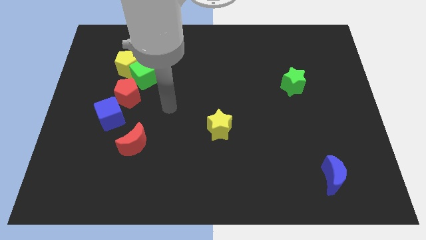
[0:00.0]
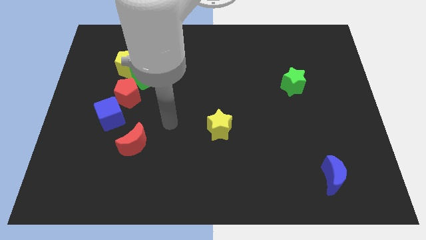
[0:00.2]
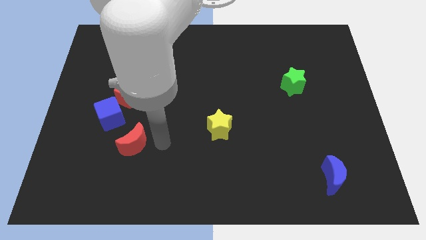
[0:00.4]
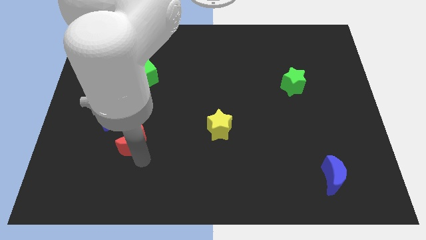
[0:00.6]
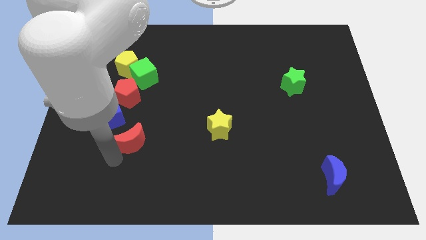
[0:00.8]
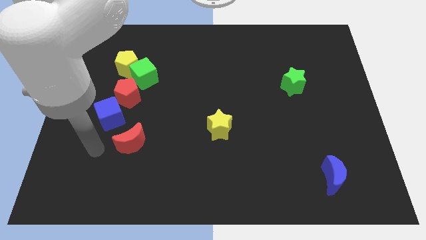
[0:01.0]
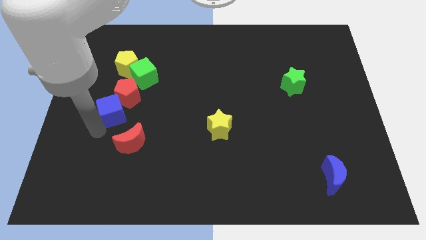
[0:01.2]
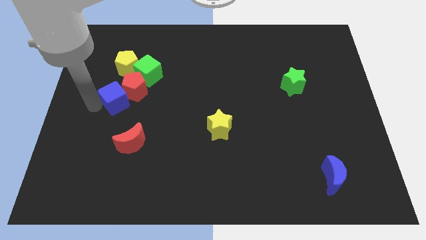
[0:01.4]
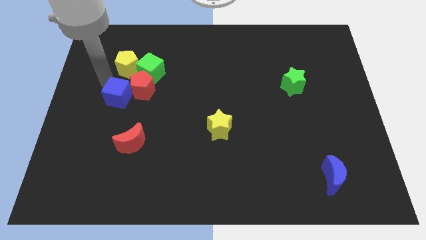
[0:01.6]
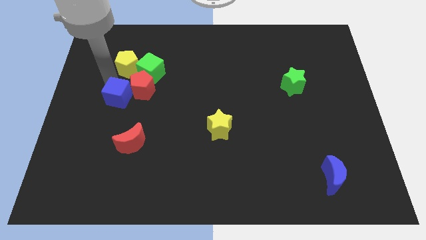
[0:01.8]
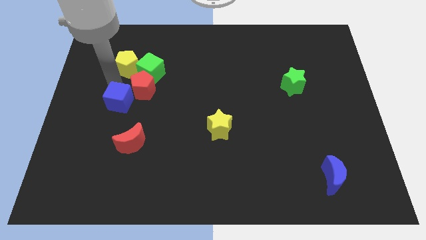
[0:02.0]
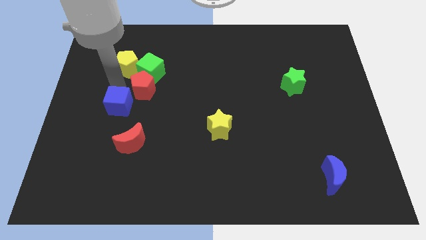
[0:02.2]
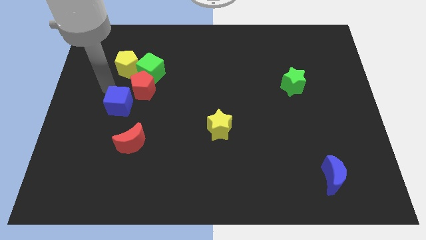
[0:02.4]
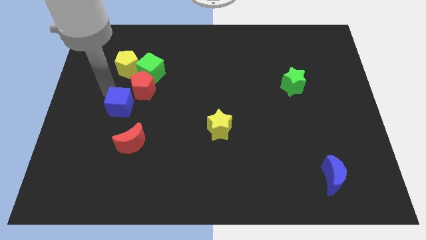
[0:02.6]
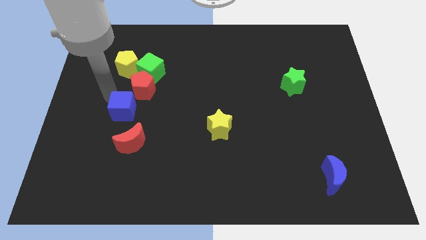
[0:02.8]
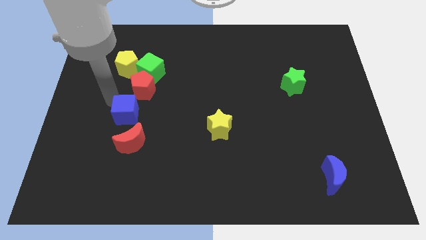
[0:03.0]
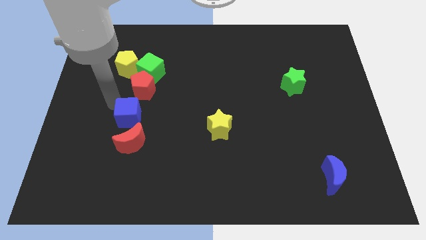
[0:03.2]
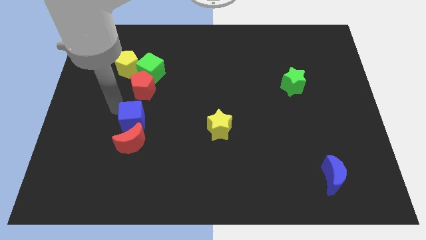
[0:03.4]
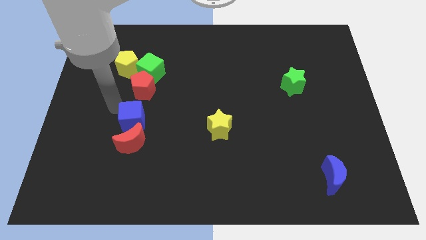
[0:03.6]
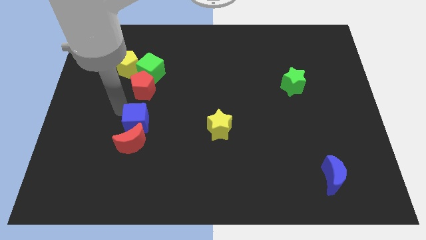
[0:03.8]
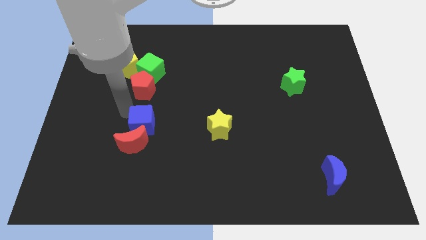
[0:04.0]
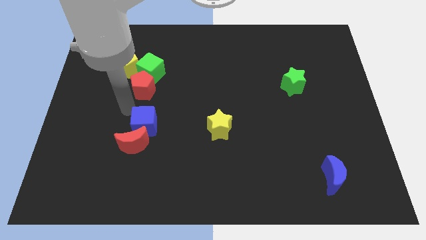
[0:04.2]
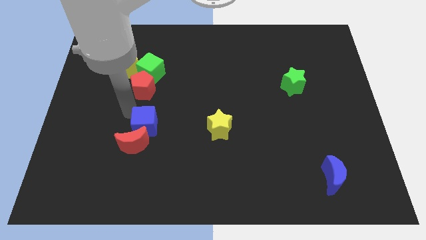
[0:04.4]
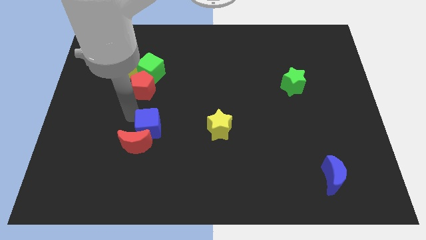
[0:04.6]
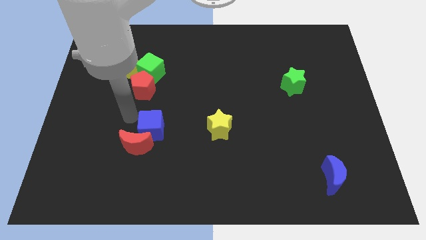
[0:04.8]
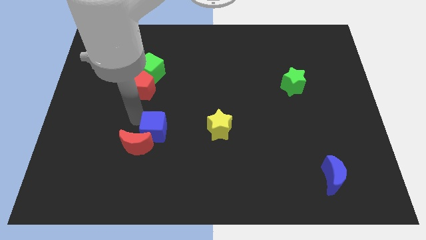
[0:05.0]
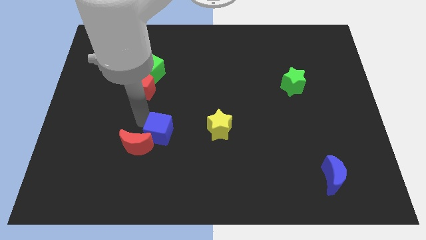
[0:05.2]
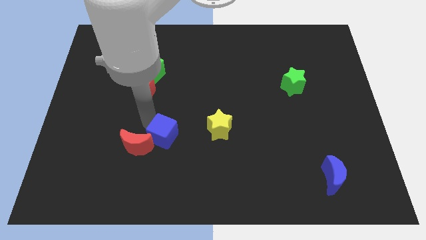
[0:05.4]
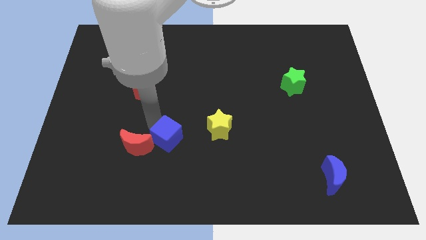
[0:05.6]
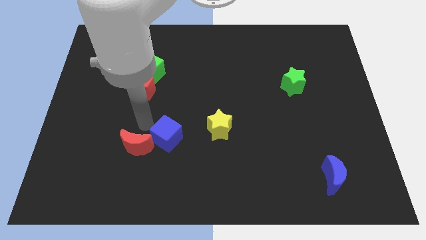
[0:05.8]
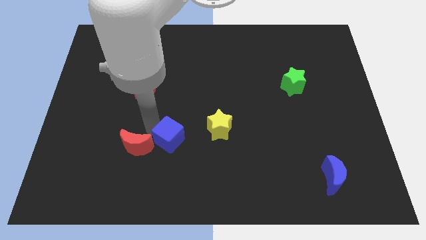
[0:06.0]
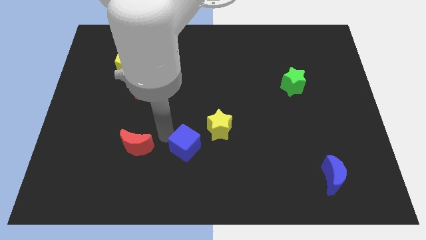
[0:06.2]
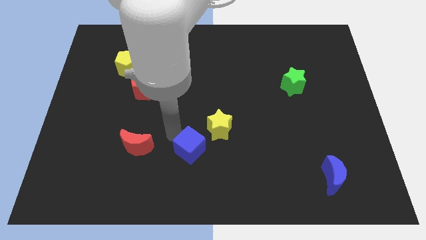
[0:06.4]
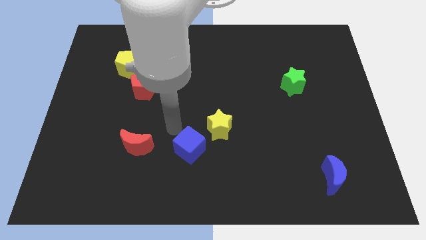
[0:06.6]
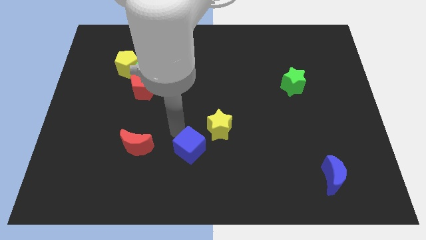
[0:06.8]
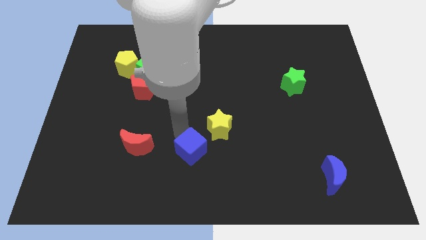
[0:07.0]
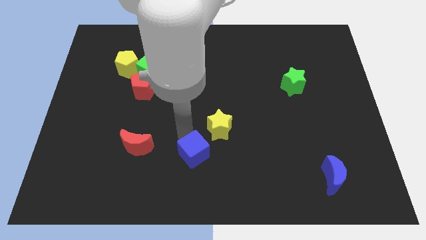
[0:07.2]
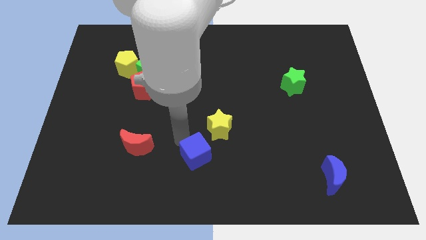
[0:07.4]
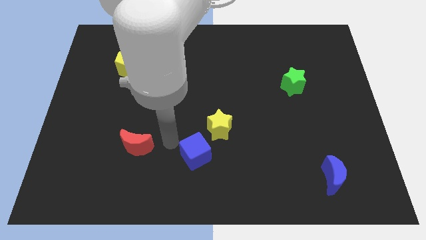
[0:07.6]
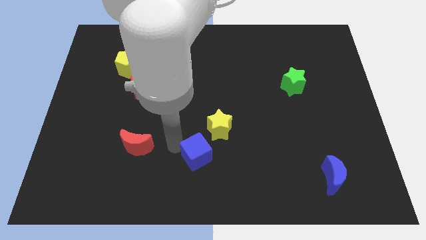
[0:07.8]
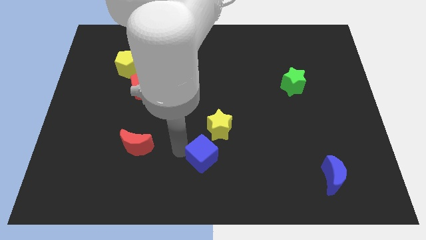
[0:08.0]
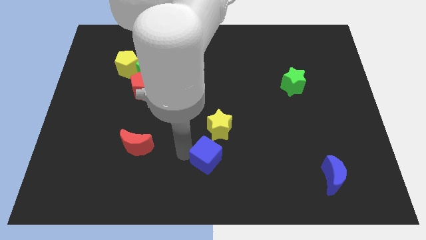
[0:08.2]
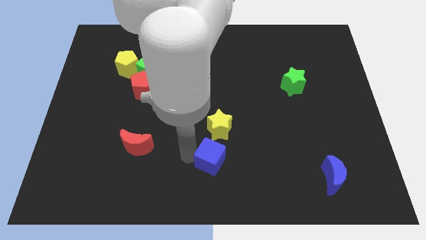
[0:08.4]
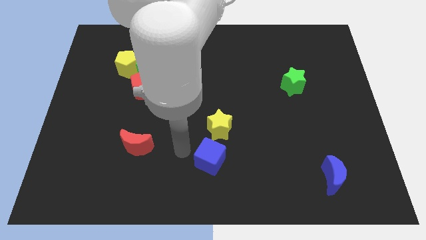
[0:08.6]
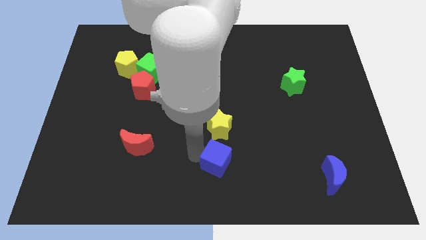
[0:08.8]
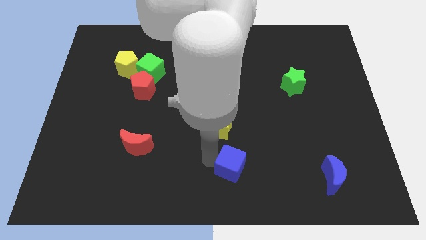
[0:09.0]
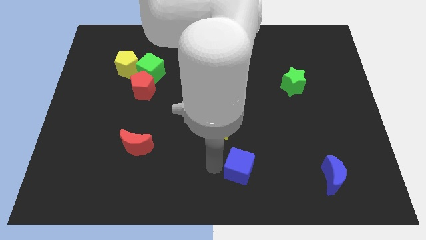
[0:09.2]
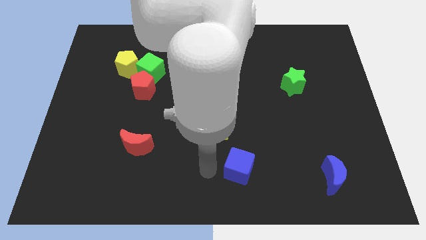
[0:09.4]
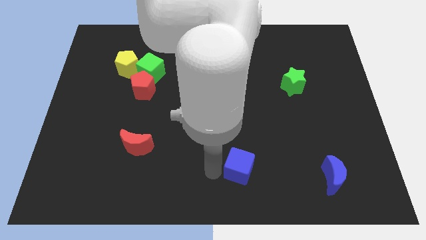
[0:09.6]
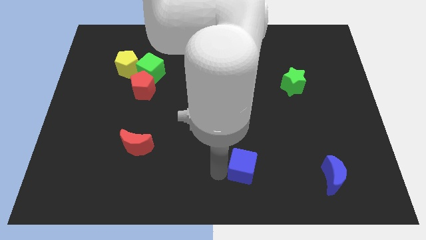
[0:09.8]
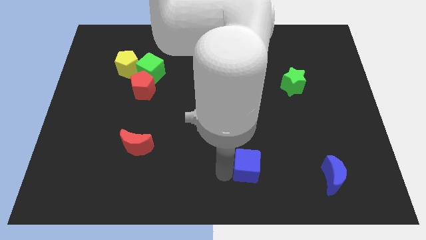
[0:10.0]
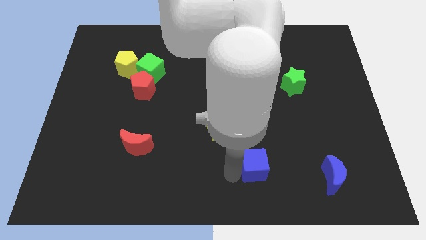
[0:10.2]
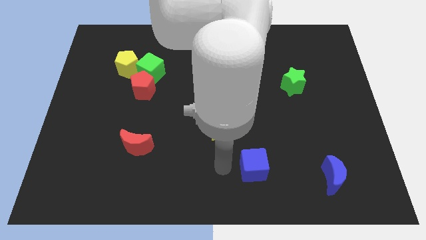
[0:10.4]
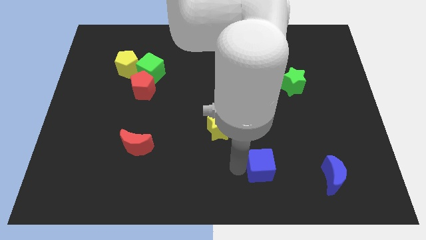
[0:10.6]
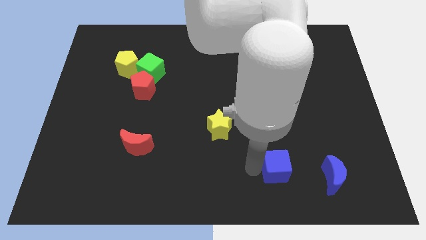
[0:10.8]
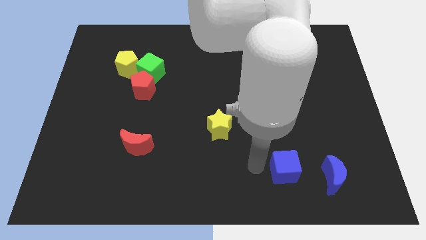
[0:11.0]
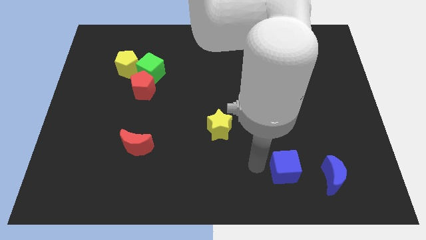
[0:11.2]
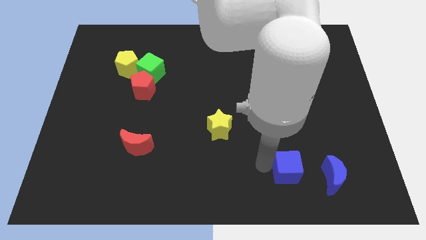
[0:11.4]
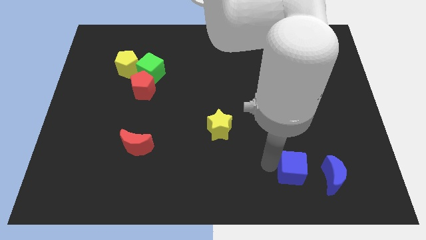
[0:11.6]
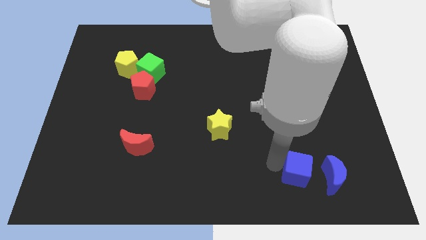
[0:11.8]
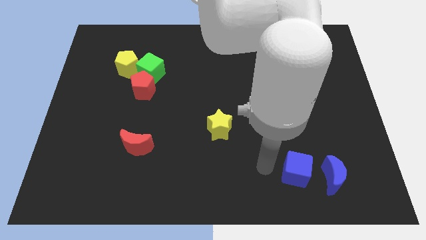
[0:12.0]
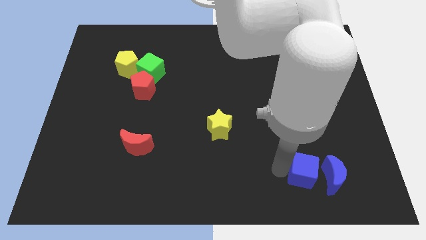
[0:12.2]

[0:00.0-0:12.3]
push the blue cube close to the blue moon

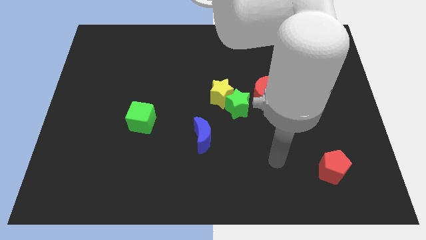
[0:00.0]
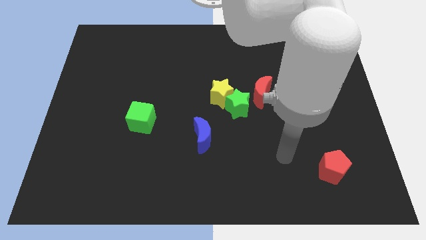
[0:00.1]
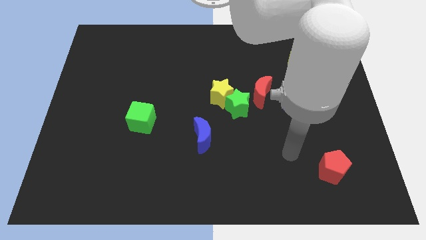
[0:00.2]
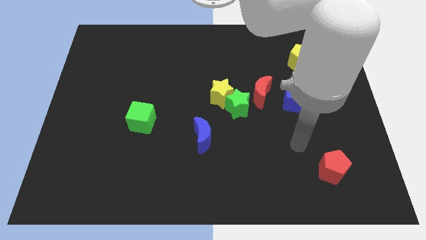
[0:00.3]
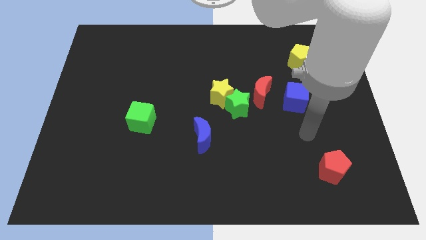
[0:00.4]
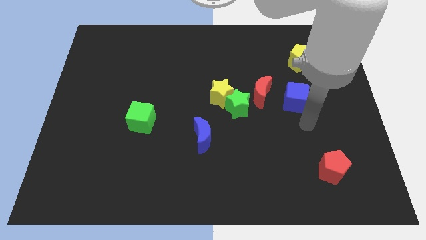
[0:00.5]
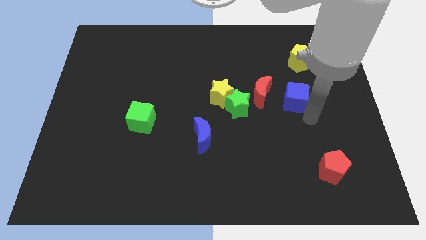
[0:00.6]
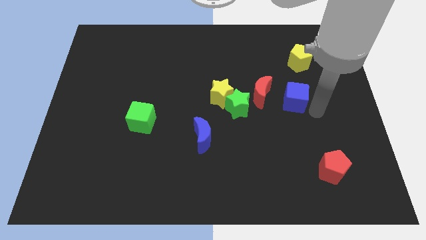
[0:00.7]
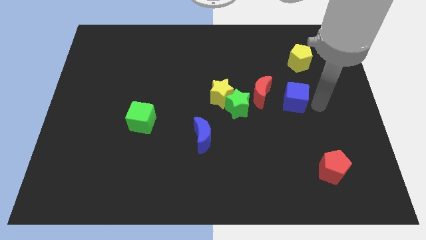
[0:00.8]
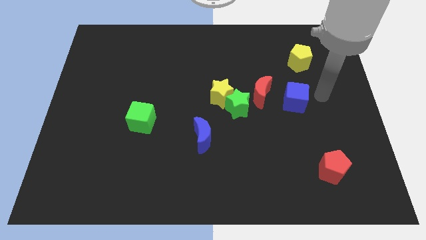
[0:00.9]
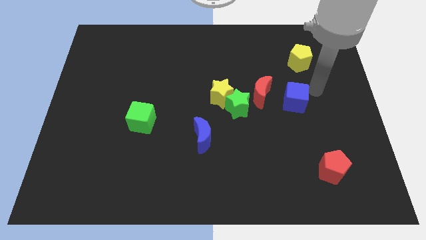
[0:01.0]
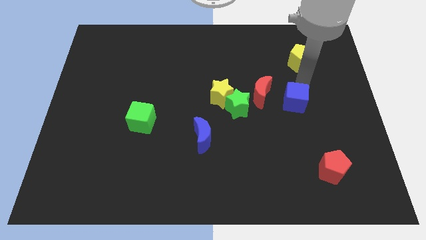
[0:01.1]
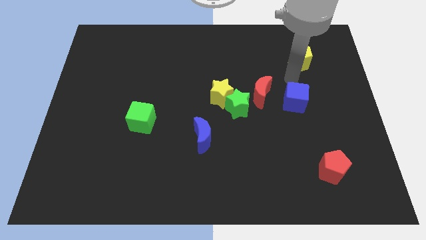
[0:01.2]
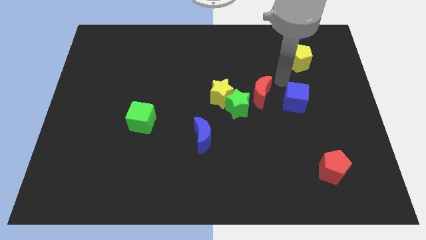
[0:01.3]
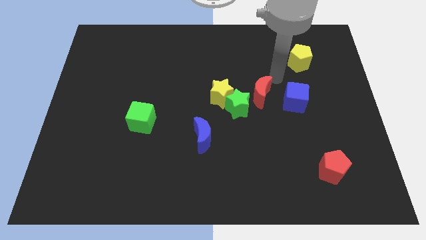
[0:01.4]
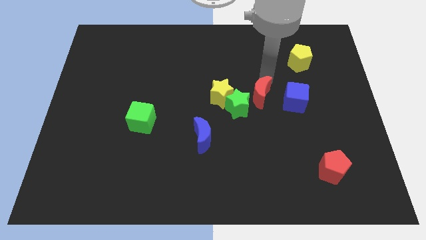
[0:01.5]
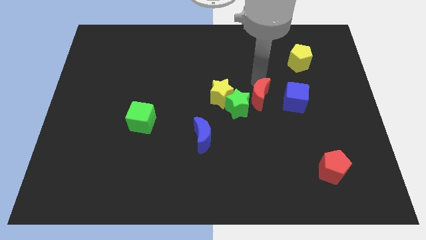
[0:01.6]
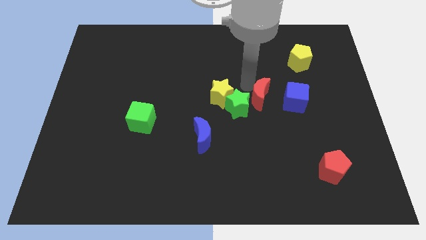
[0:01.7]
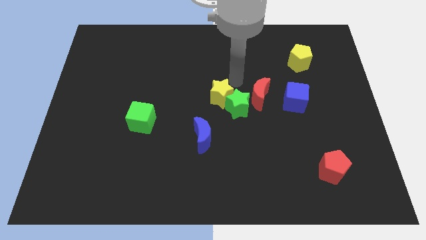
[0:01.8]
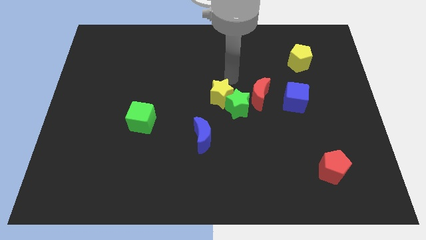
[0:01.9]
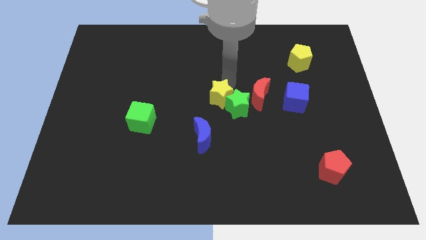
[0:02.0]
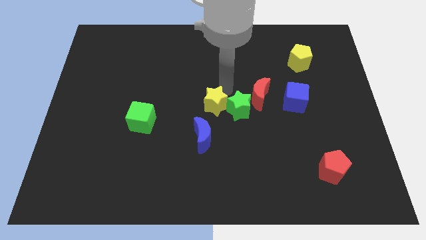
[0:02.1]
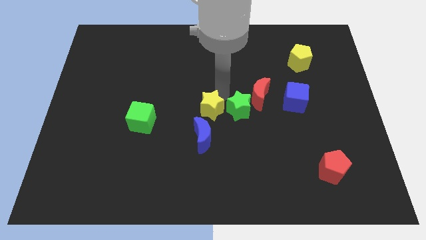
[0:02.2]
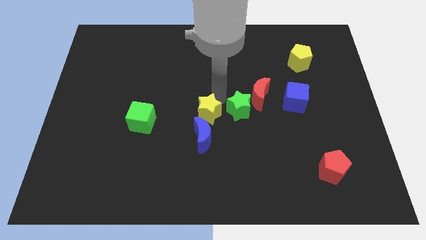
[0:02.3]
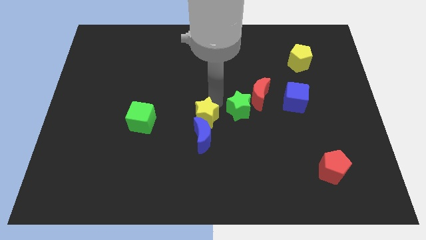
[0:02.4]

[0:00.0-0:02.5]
move the yellow star next to the blue moon
